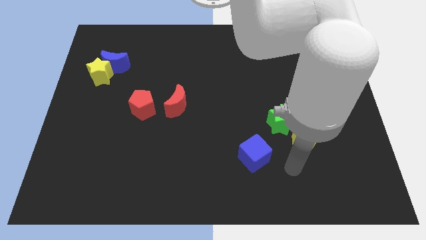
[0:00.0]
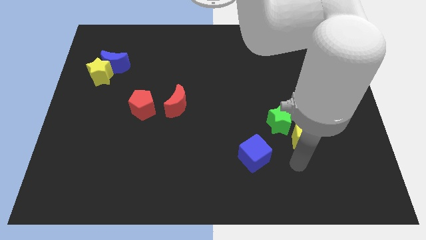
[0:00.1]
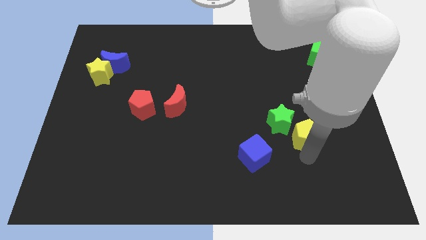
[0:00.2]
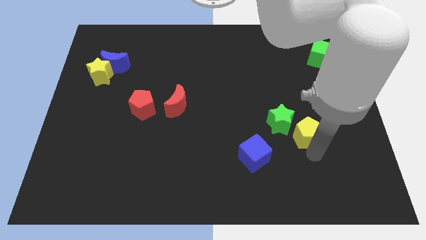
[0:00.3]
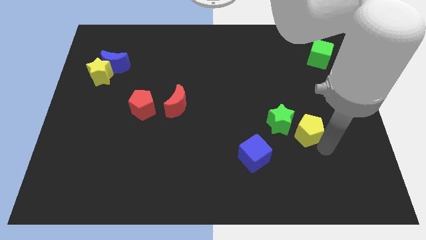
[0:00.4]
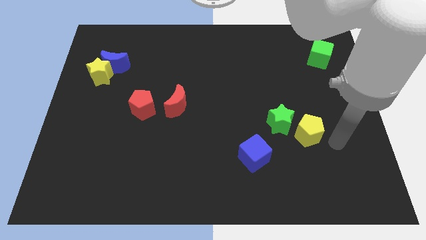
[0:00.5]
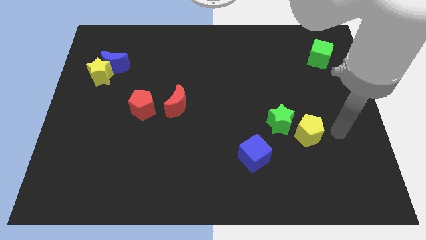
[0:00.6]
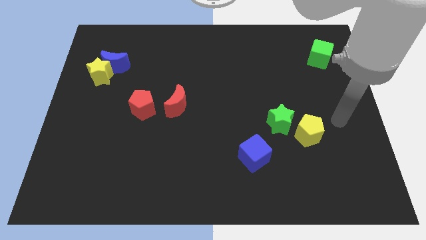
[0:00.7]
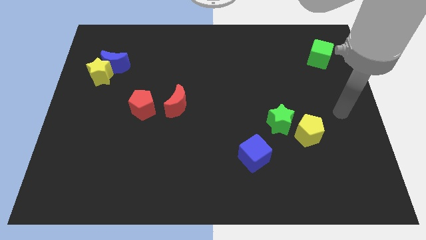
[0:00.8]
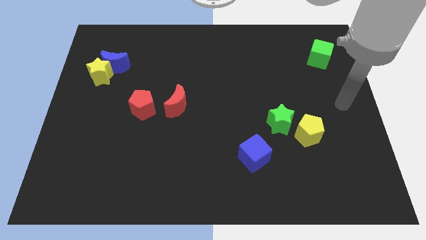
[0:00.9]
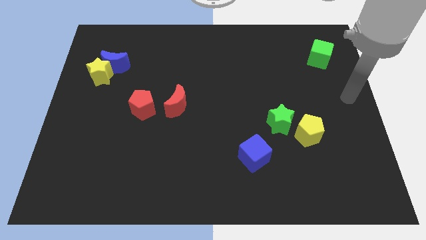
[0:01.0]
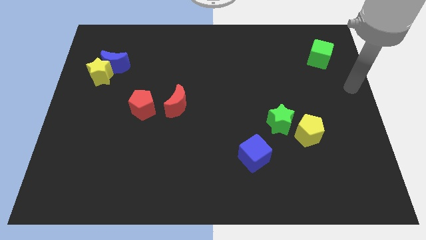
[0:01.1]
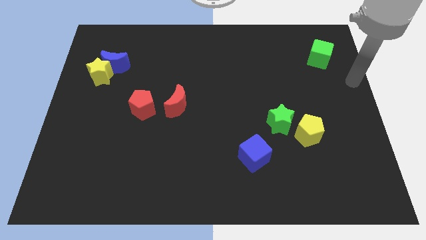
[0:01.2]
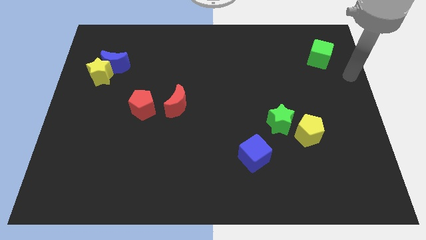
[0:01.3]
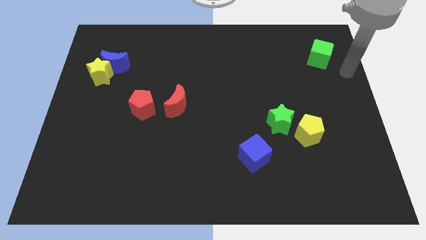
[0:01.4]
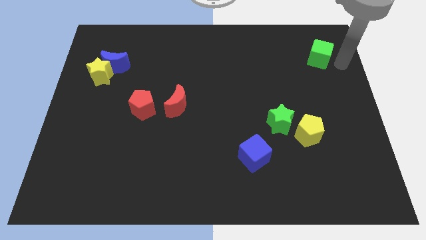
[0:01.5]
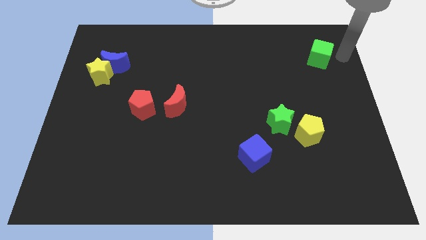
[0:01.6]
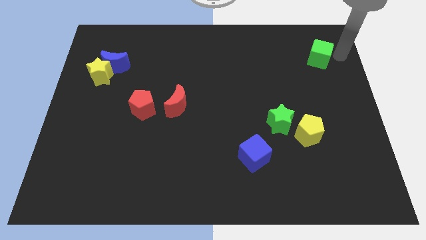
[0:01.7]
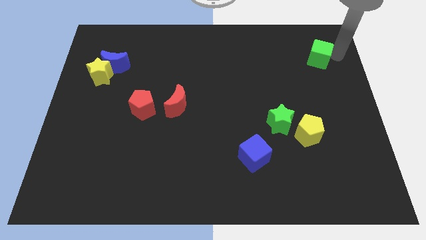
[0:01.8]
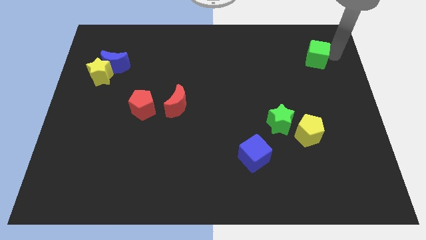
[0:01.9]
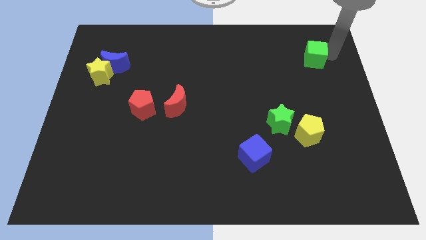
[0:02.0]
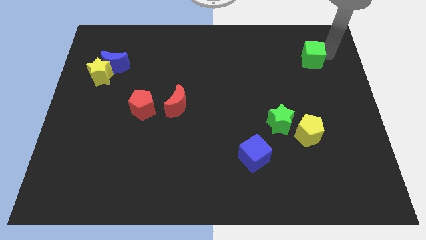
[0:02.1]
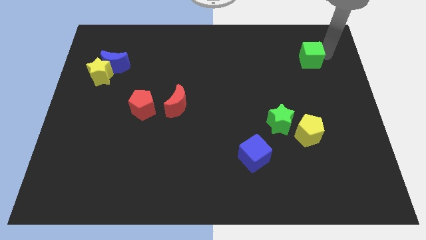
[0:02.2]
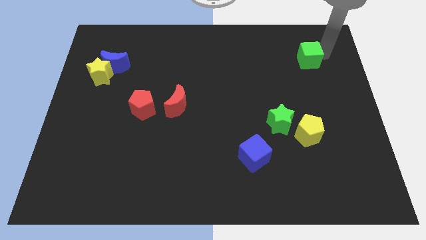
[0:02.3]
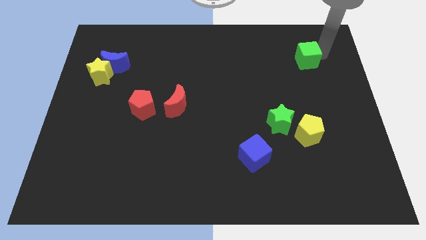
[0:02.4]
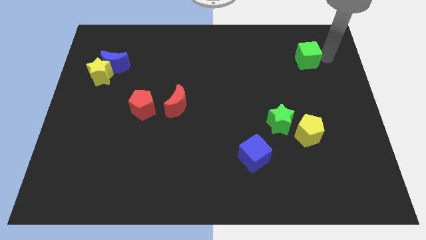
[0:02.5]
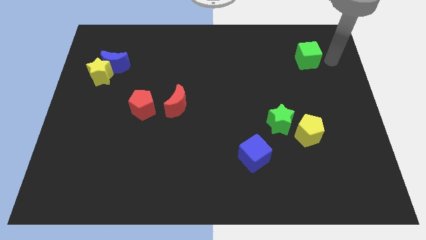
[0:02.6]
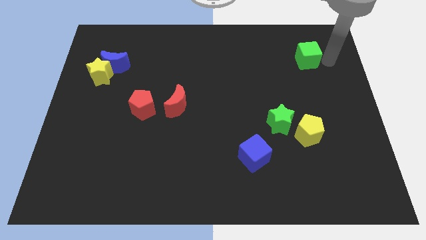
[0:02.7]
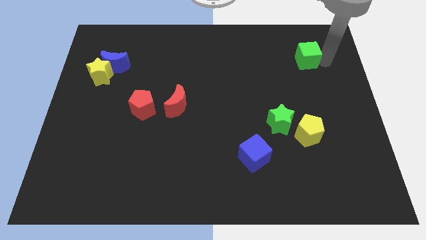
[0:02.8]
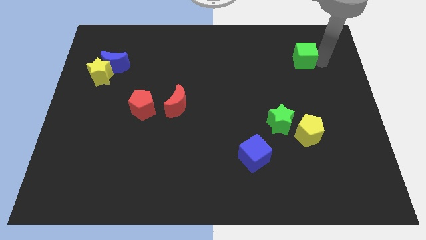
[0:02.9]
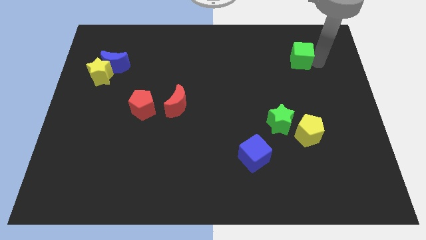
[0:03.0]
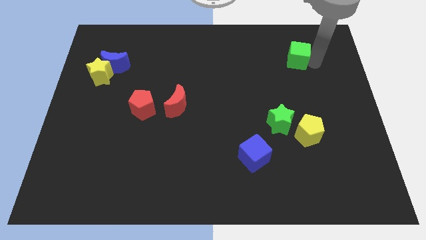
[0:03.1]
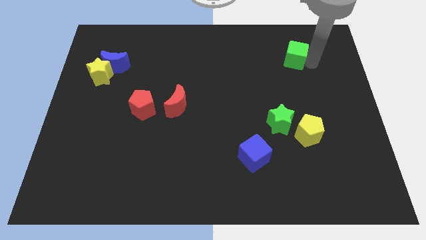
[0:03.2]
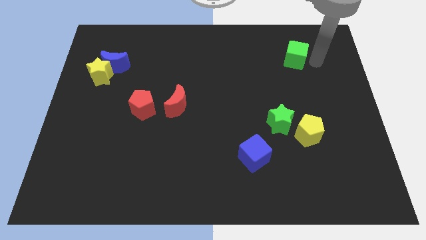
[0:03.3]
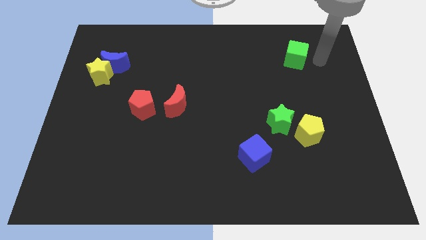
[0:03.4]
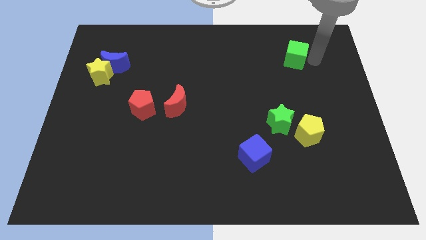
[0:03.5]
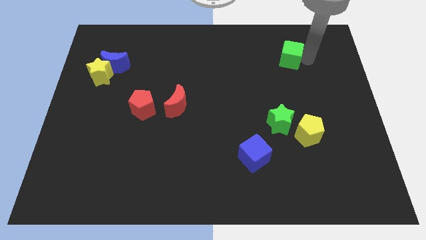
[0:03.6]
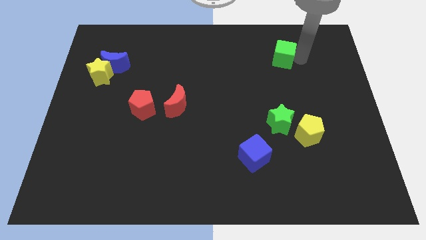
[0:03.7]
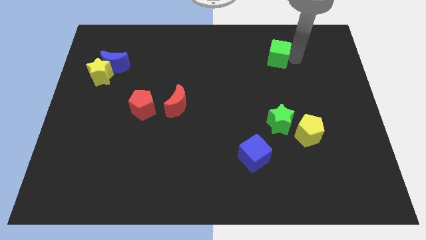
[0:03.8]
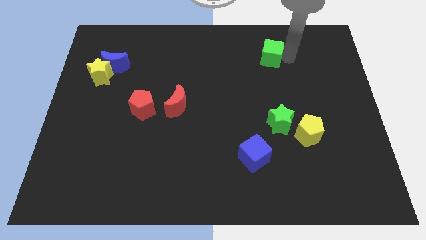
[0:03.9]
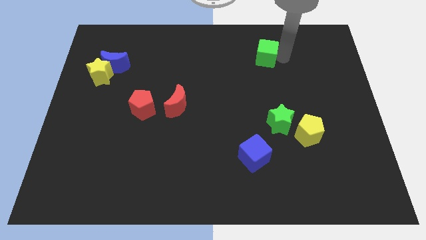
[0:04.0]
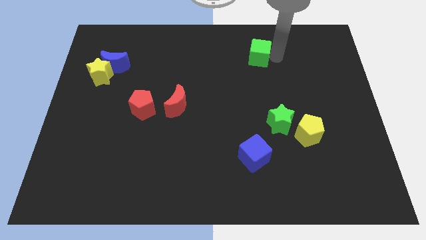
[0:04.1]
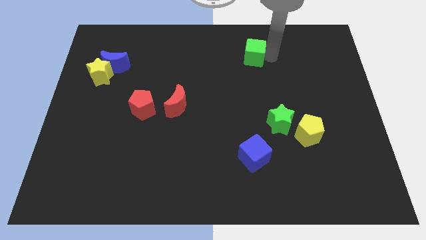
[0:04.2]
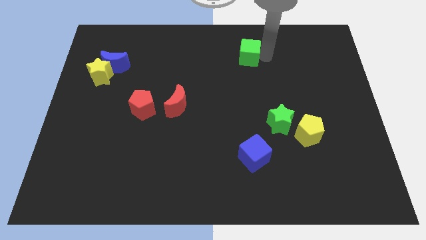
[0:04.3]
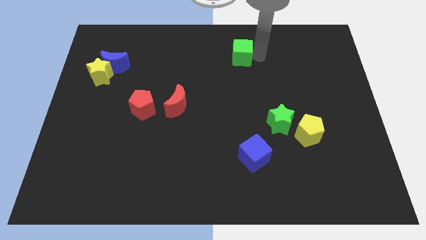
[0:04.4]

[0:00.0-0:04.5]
slide the green cube left

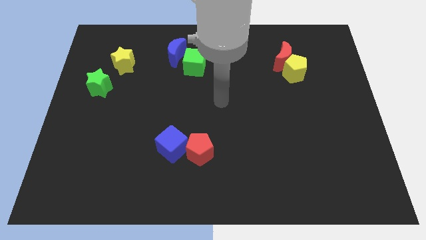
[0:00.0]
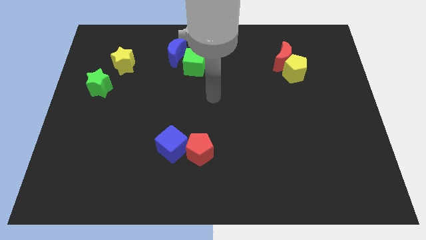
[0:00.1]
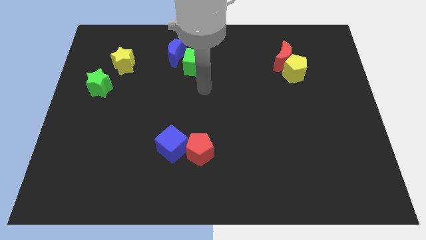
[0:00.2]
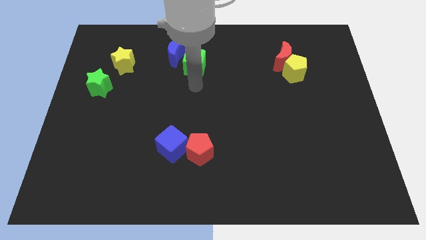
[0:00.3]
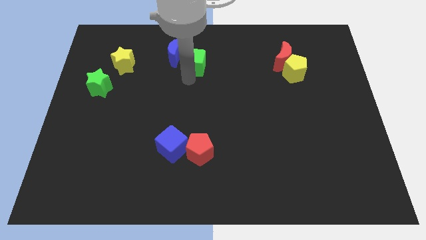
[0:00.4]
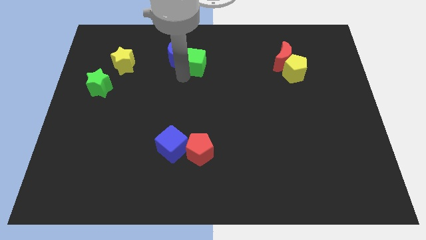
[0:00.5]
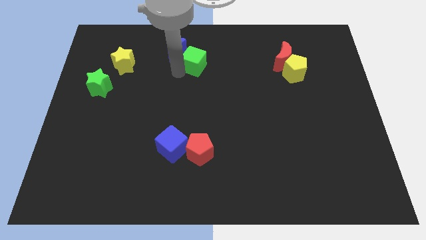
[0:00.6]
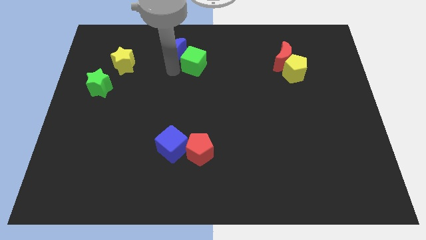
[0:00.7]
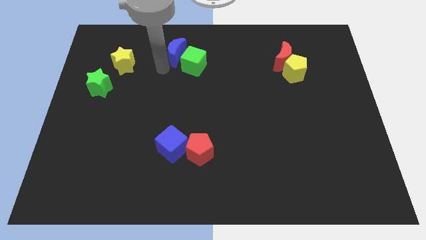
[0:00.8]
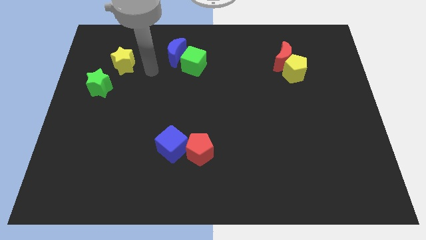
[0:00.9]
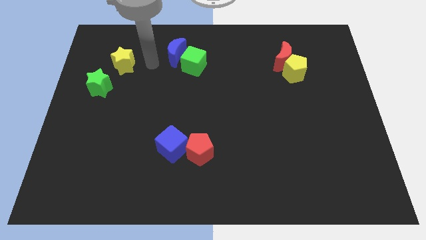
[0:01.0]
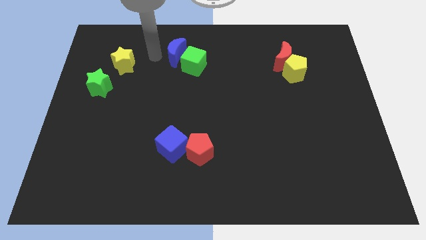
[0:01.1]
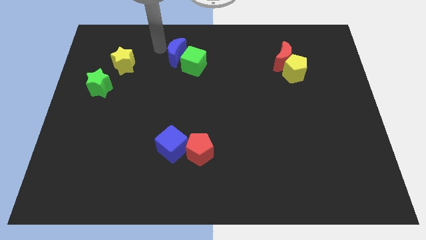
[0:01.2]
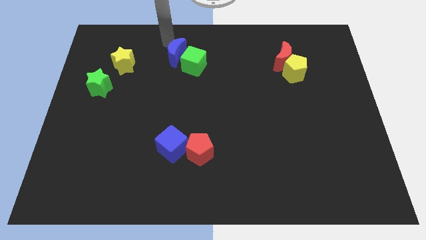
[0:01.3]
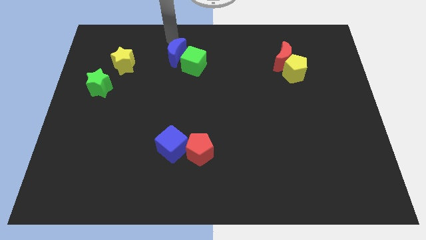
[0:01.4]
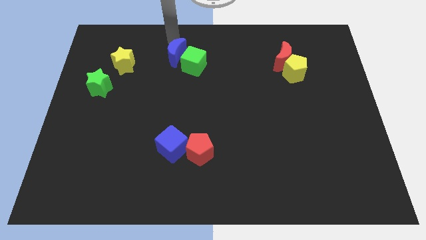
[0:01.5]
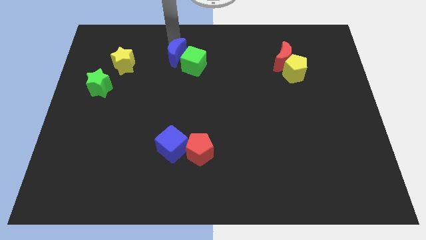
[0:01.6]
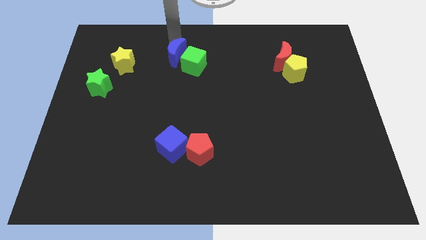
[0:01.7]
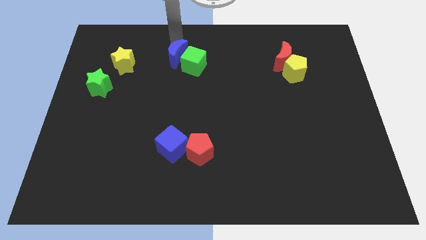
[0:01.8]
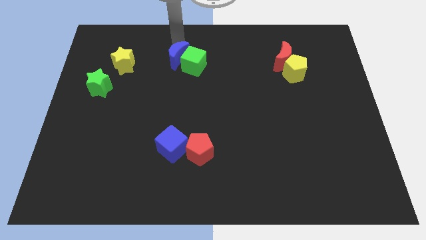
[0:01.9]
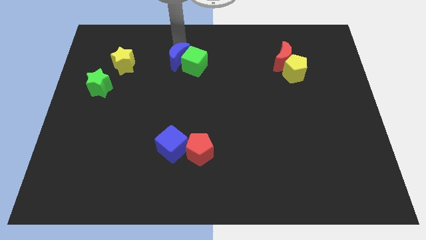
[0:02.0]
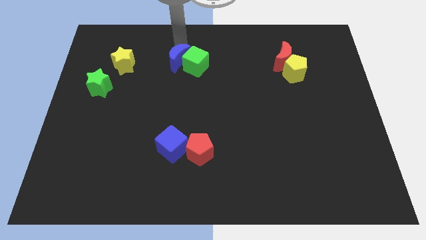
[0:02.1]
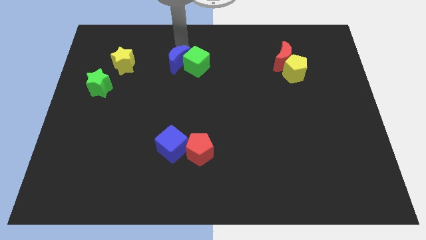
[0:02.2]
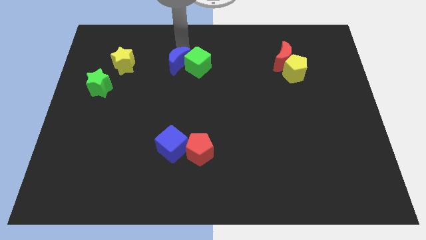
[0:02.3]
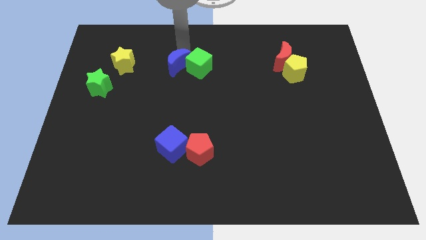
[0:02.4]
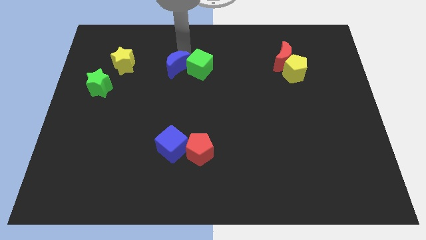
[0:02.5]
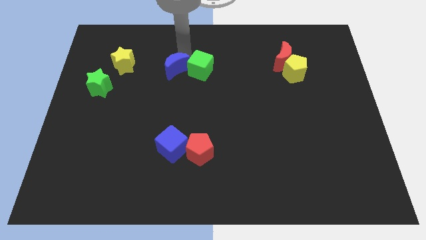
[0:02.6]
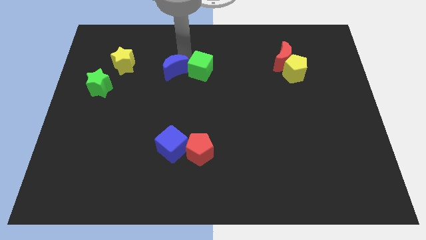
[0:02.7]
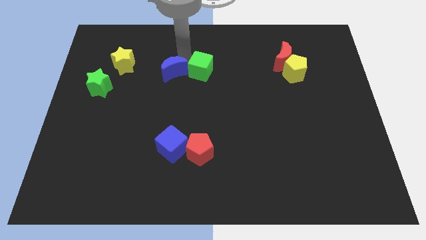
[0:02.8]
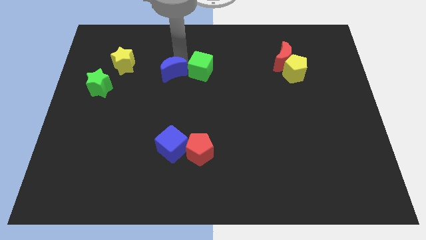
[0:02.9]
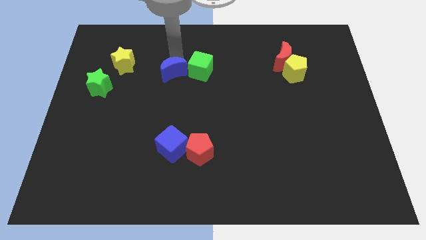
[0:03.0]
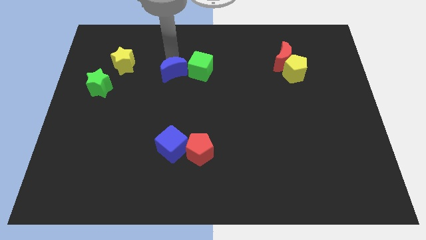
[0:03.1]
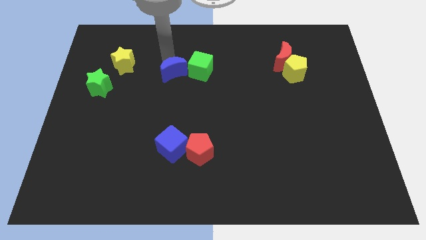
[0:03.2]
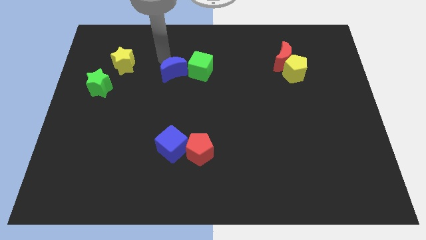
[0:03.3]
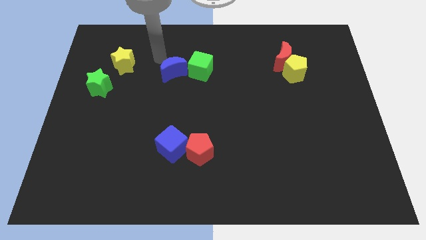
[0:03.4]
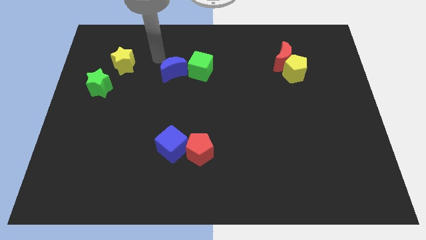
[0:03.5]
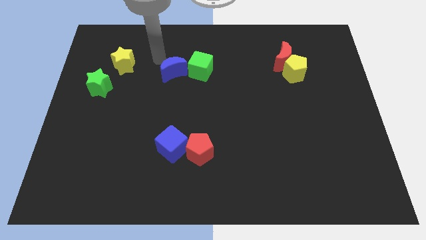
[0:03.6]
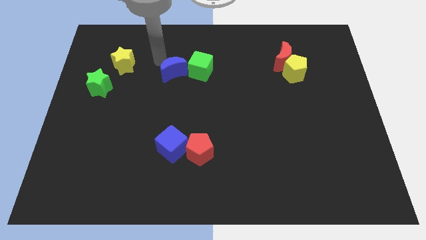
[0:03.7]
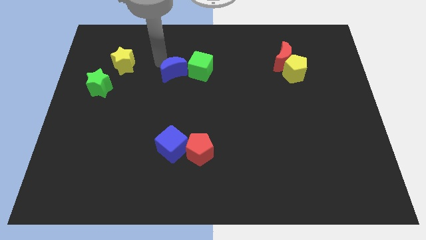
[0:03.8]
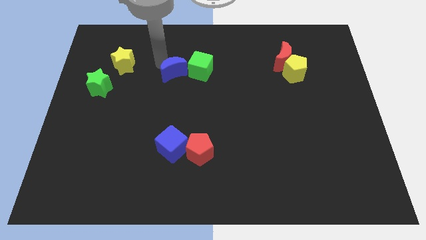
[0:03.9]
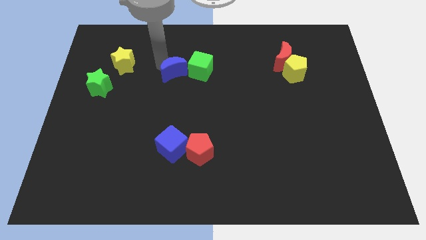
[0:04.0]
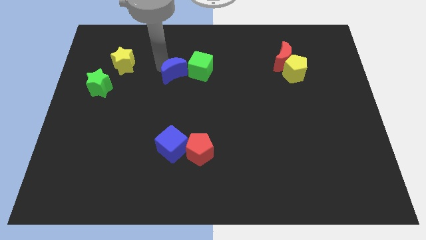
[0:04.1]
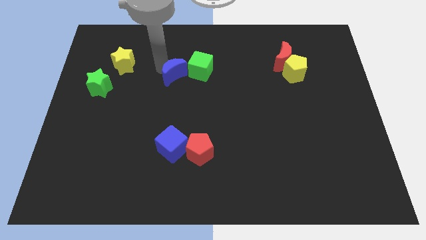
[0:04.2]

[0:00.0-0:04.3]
push the blue moon downwards slightly
